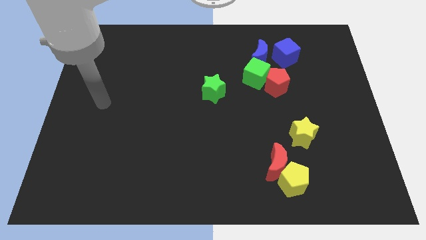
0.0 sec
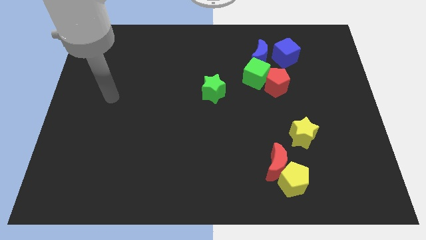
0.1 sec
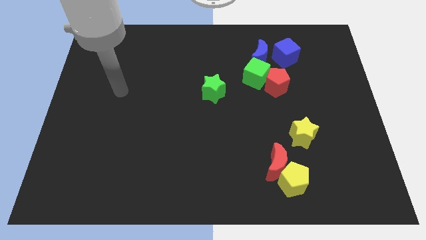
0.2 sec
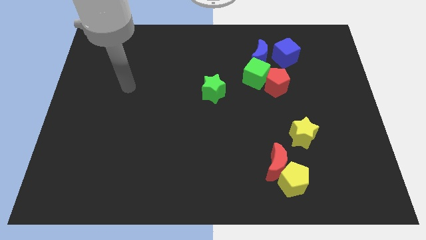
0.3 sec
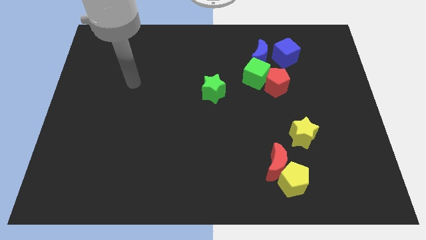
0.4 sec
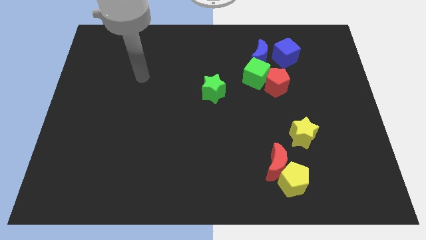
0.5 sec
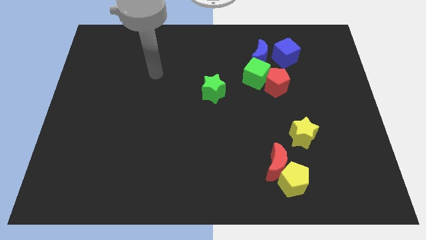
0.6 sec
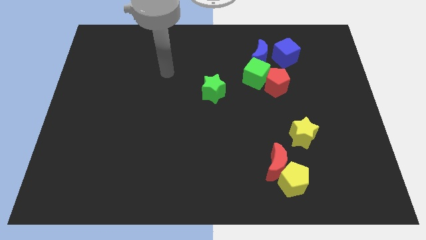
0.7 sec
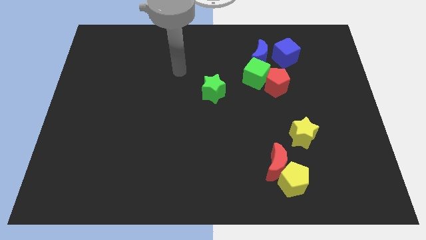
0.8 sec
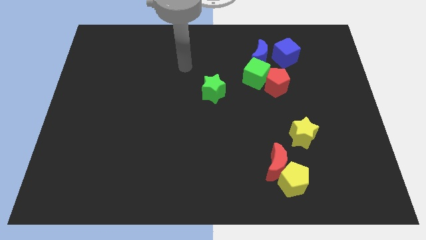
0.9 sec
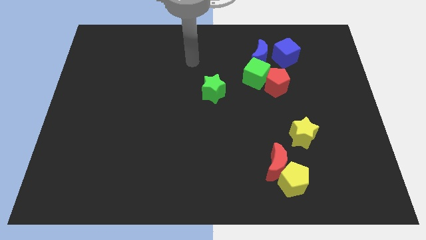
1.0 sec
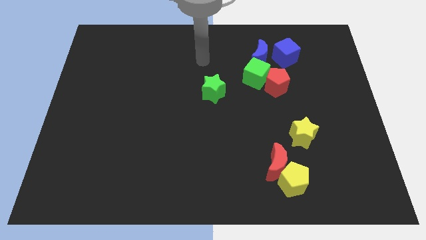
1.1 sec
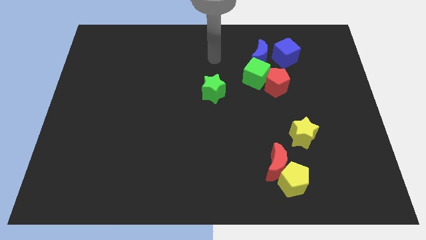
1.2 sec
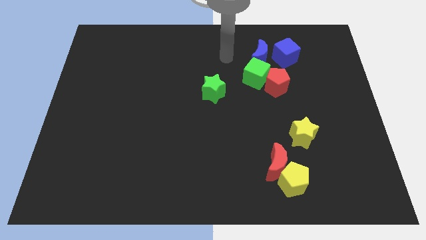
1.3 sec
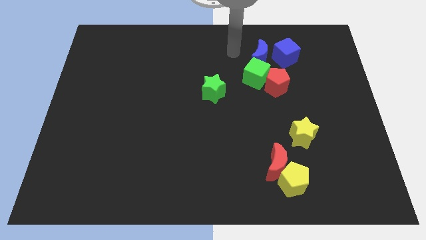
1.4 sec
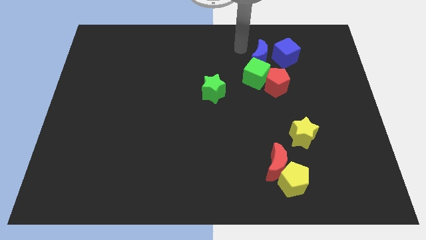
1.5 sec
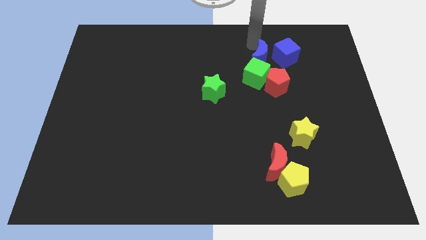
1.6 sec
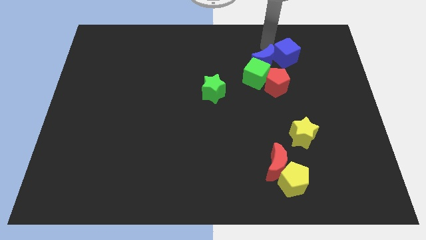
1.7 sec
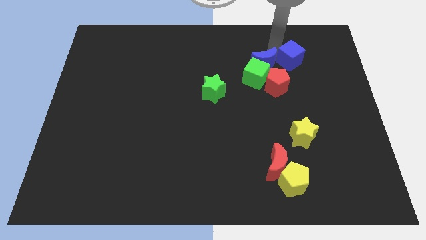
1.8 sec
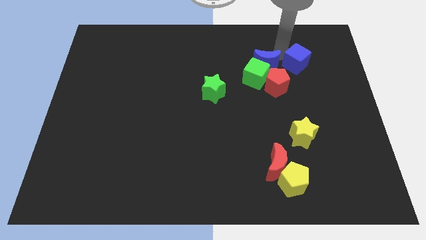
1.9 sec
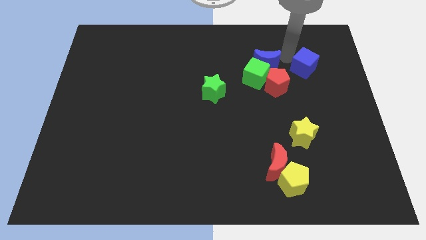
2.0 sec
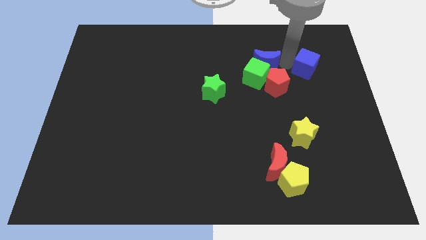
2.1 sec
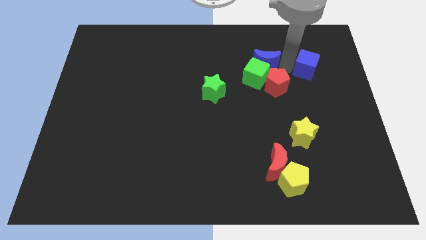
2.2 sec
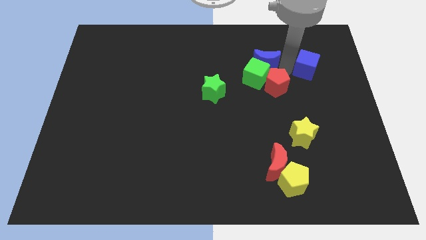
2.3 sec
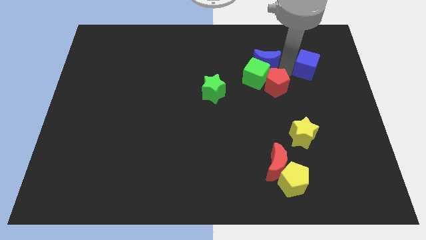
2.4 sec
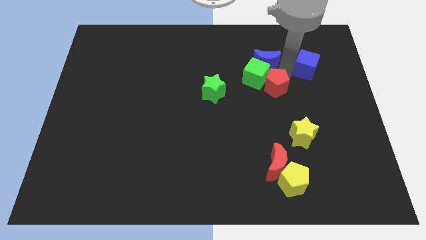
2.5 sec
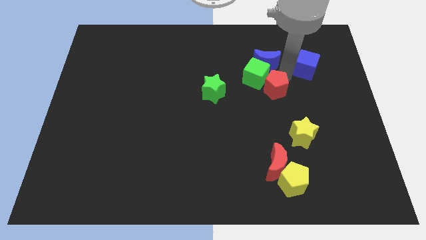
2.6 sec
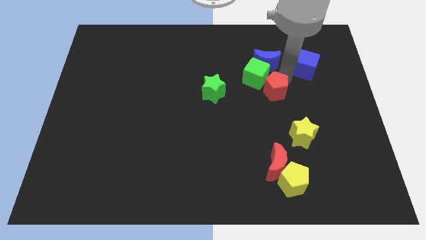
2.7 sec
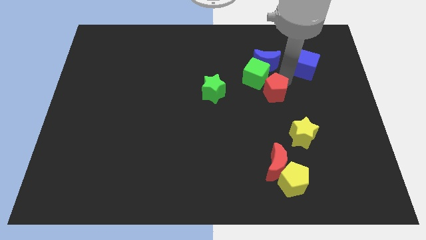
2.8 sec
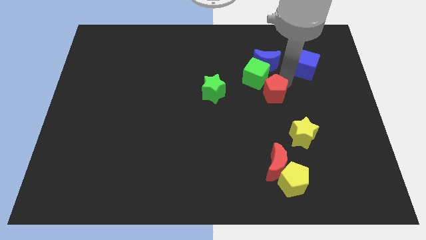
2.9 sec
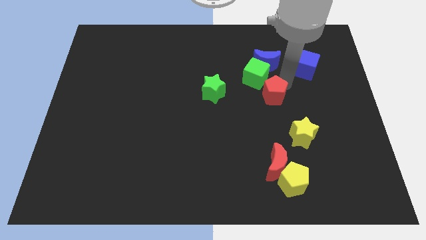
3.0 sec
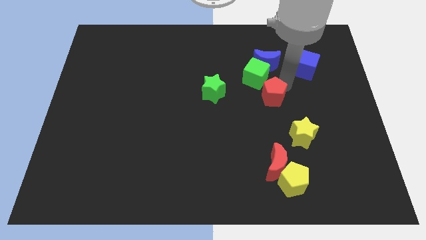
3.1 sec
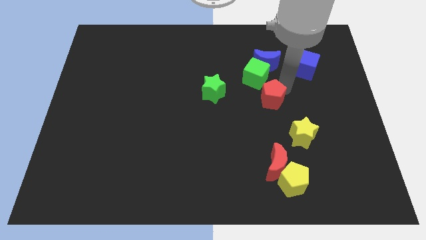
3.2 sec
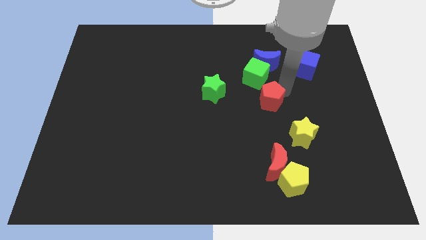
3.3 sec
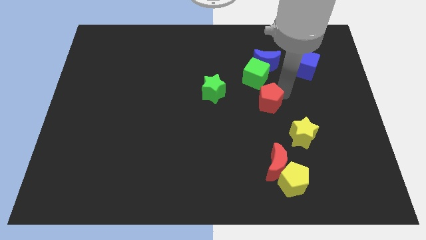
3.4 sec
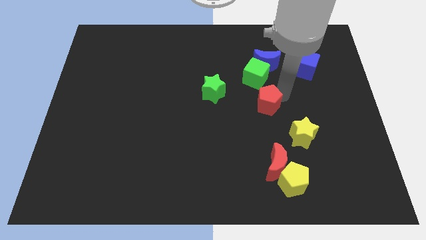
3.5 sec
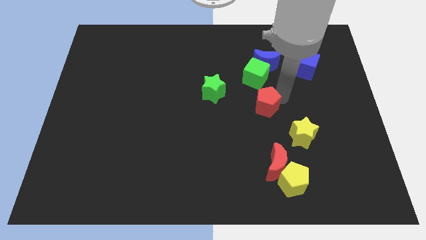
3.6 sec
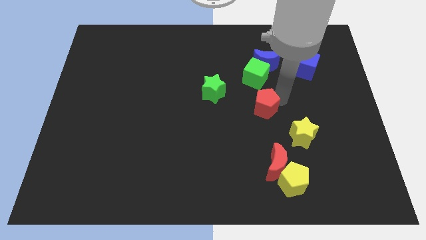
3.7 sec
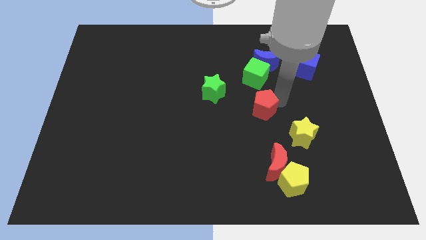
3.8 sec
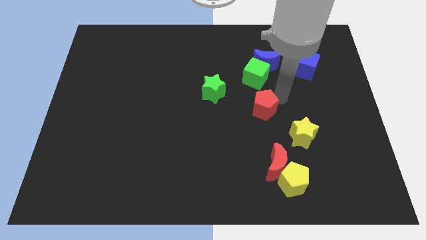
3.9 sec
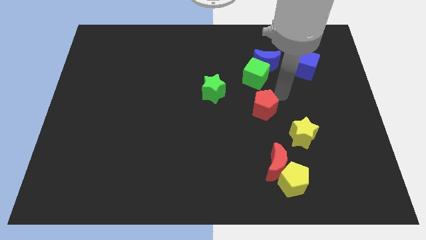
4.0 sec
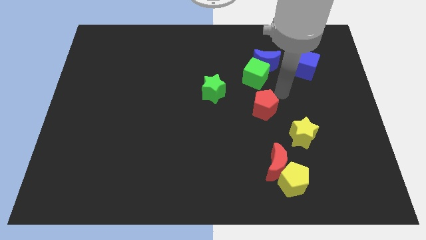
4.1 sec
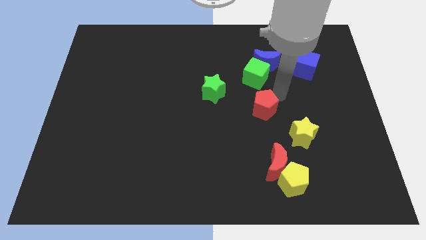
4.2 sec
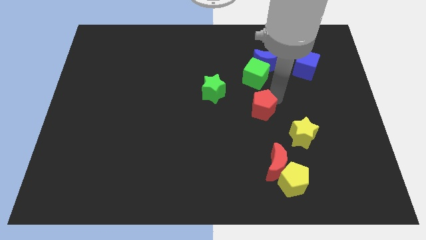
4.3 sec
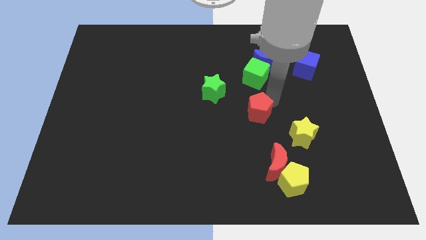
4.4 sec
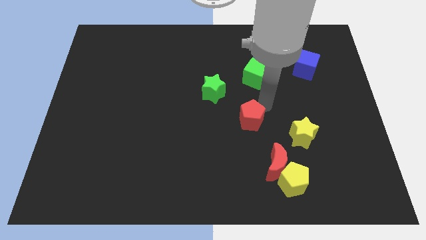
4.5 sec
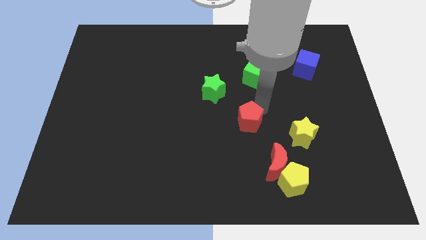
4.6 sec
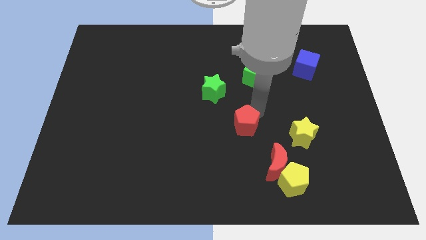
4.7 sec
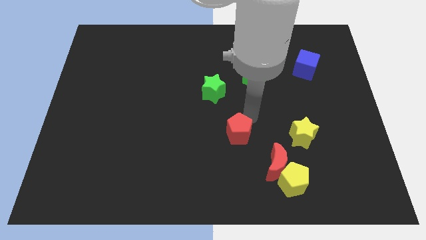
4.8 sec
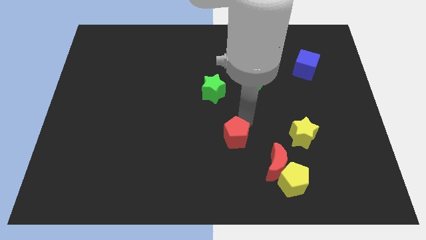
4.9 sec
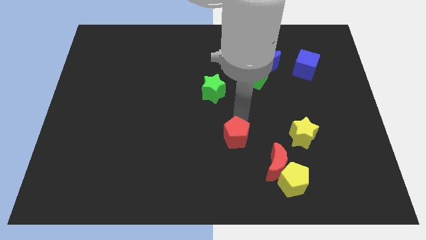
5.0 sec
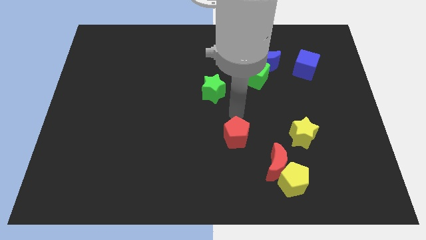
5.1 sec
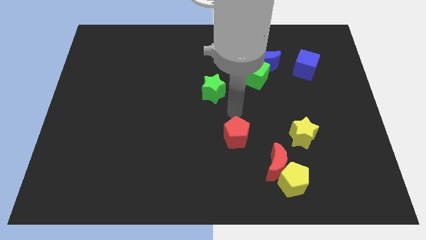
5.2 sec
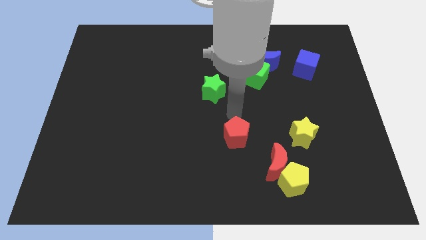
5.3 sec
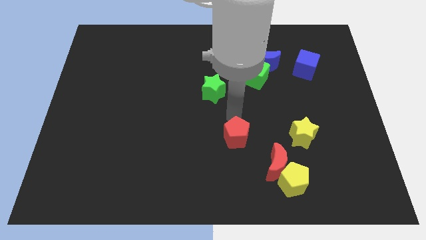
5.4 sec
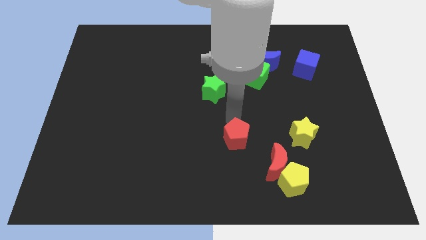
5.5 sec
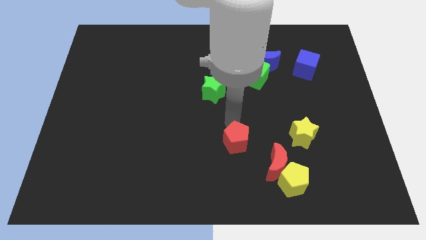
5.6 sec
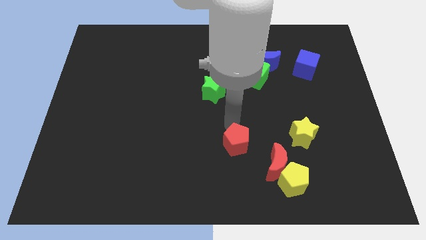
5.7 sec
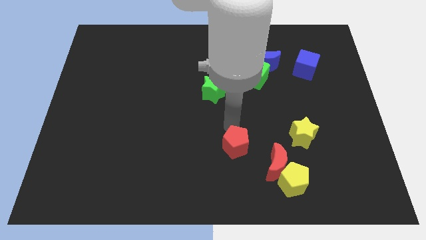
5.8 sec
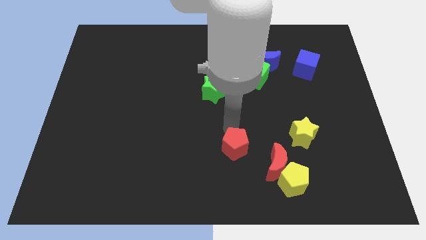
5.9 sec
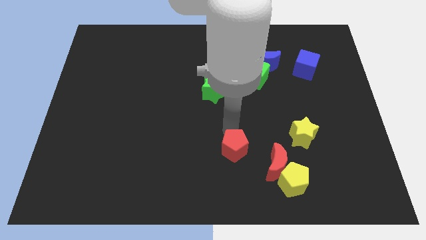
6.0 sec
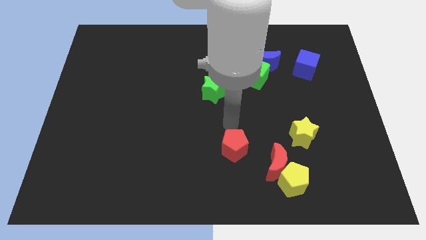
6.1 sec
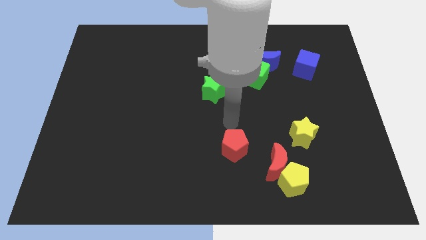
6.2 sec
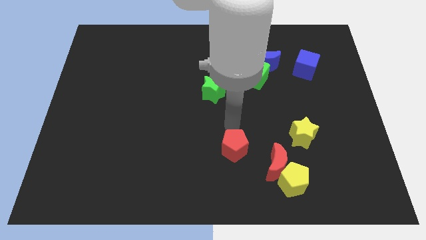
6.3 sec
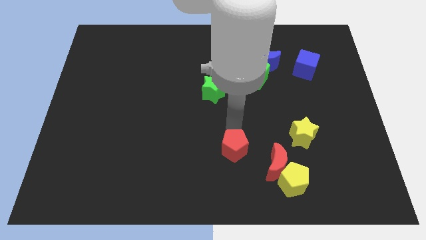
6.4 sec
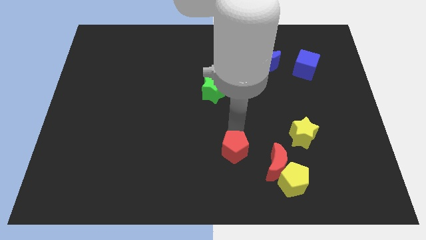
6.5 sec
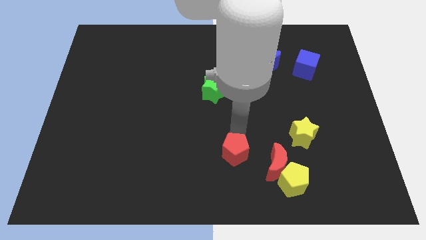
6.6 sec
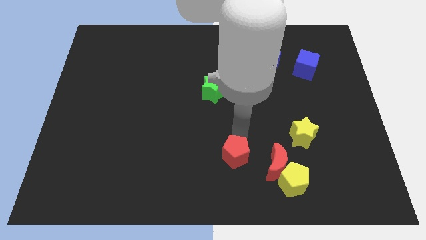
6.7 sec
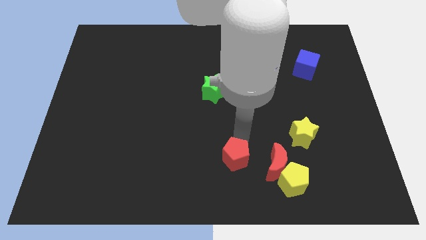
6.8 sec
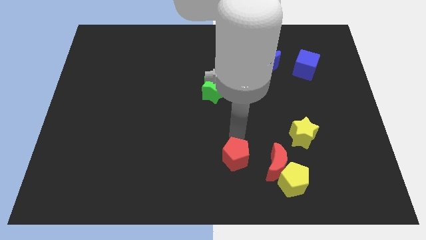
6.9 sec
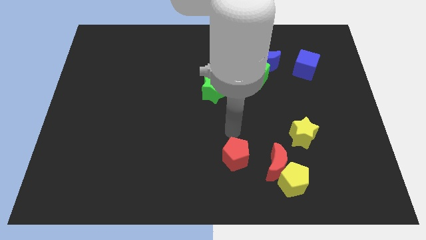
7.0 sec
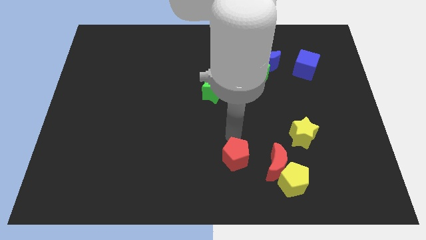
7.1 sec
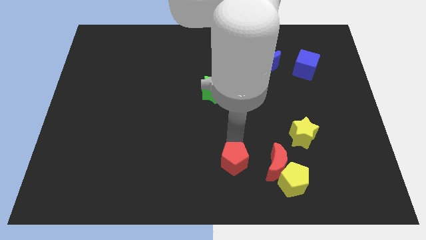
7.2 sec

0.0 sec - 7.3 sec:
put the red pentagon to the left of the yellow pentagon
